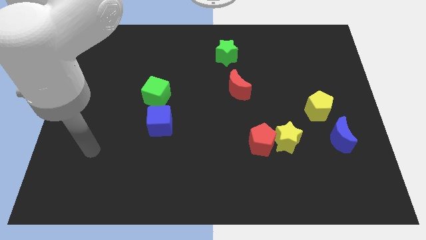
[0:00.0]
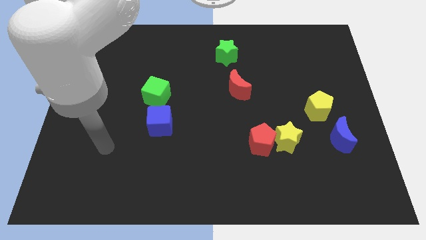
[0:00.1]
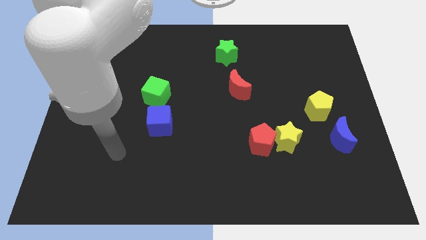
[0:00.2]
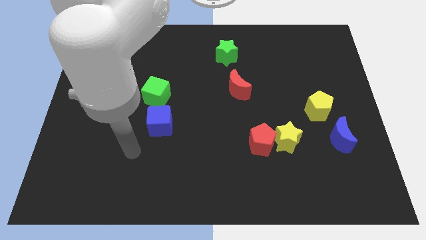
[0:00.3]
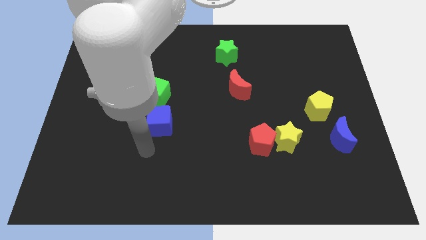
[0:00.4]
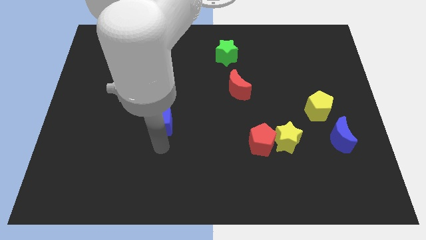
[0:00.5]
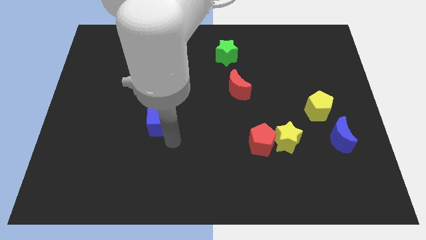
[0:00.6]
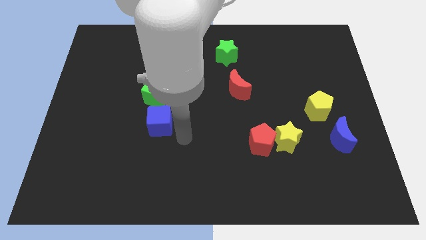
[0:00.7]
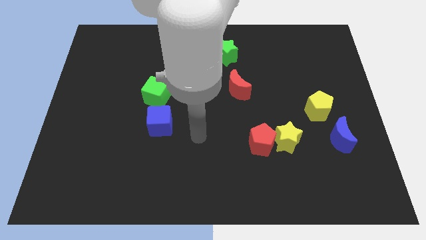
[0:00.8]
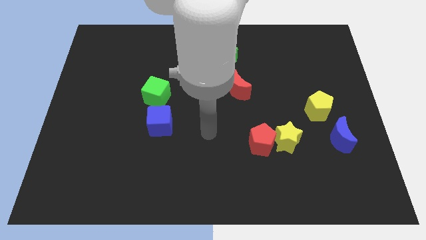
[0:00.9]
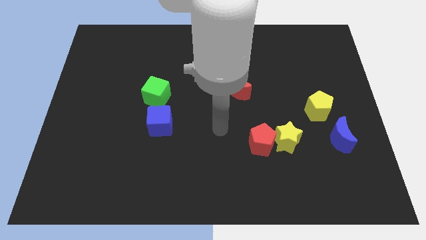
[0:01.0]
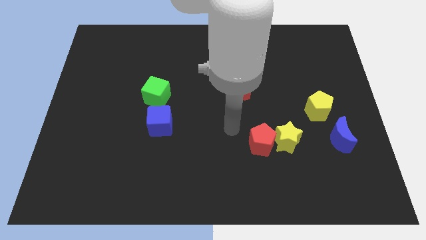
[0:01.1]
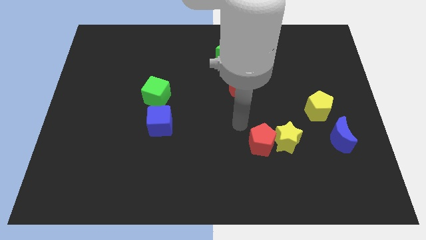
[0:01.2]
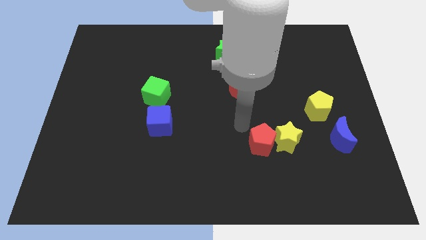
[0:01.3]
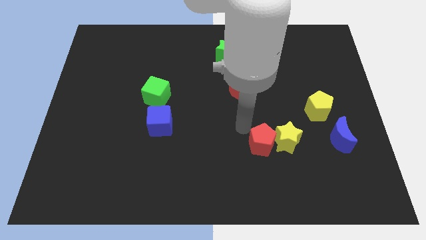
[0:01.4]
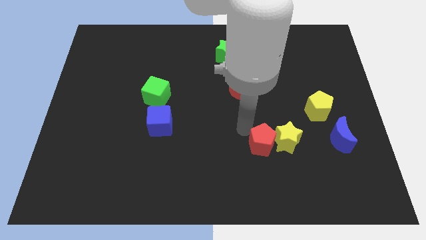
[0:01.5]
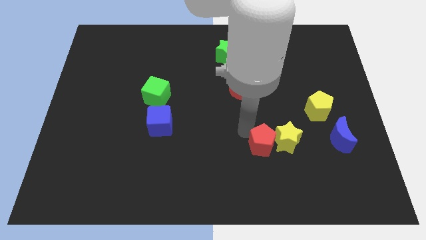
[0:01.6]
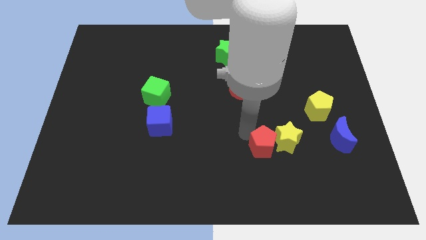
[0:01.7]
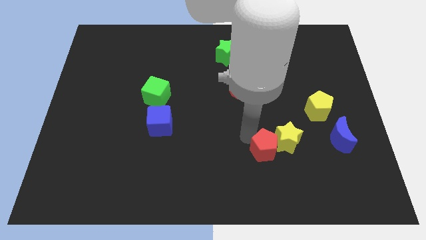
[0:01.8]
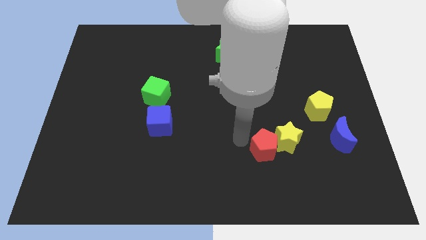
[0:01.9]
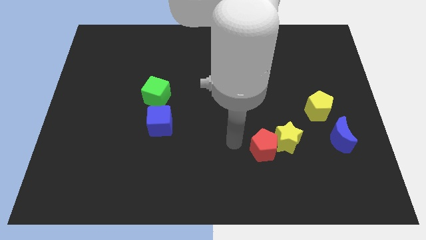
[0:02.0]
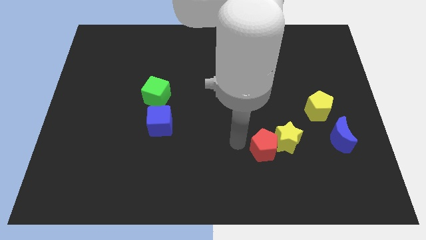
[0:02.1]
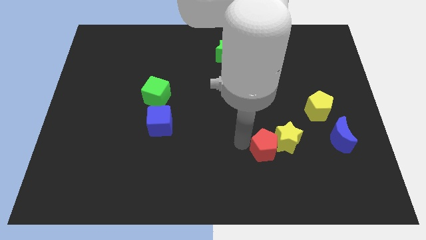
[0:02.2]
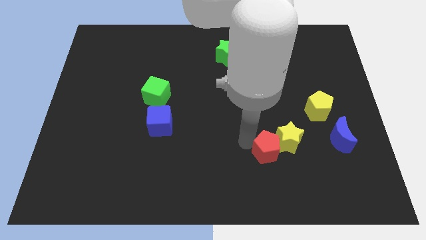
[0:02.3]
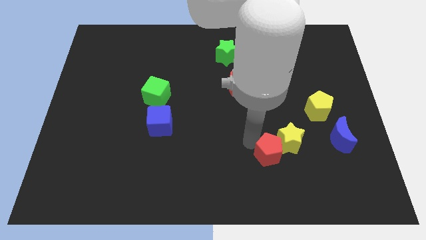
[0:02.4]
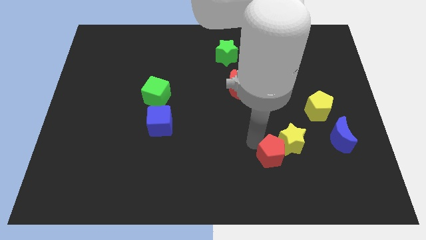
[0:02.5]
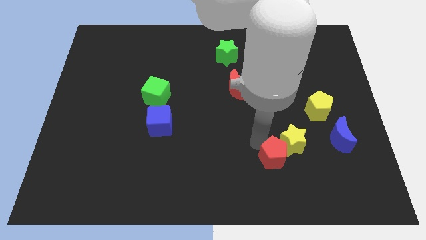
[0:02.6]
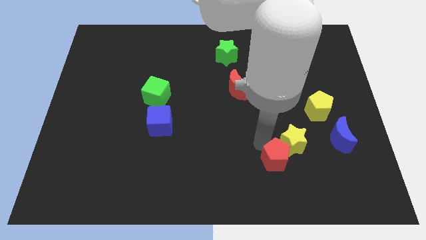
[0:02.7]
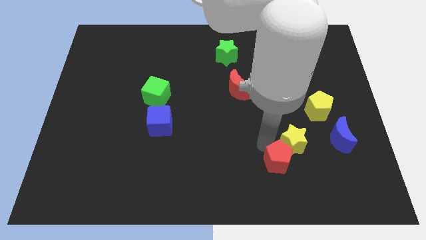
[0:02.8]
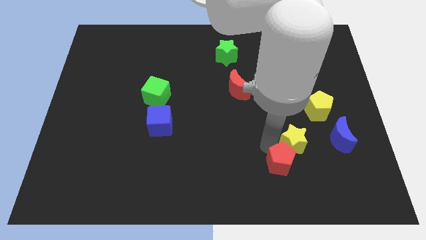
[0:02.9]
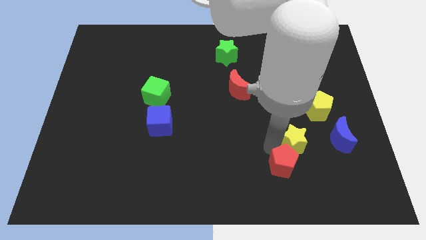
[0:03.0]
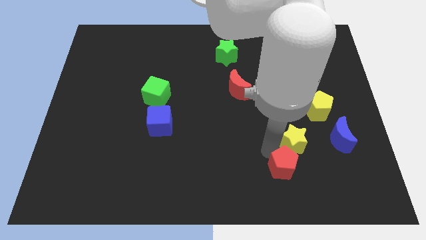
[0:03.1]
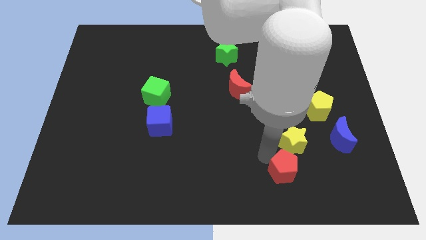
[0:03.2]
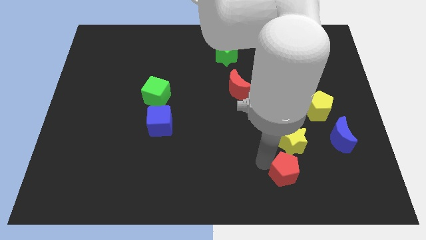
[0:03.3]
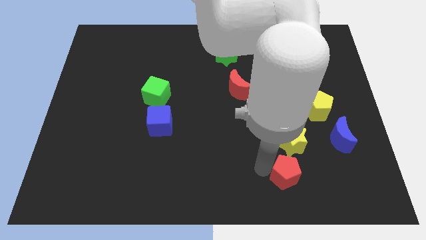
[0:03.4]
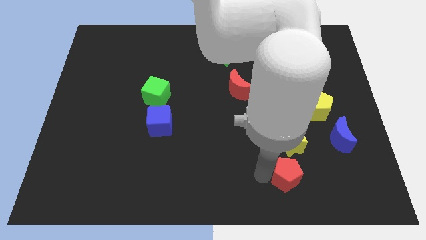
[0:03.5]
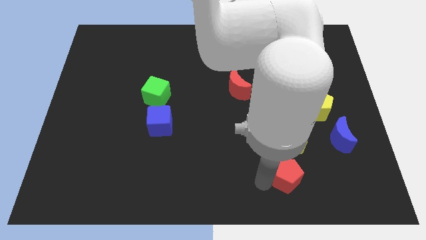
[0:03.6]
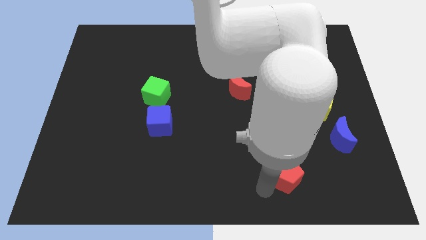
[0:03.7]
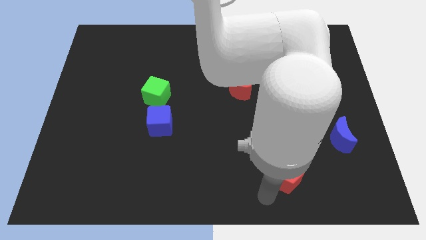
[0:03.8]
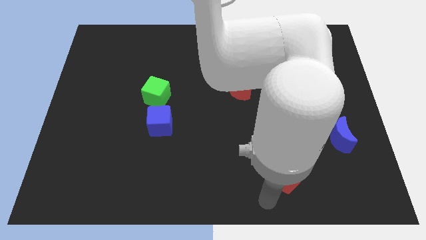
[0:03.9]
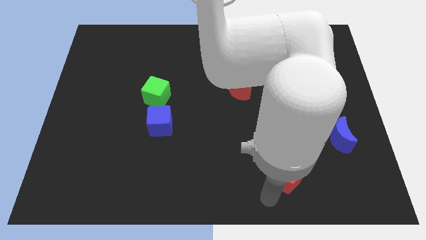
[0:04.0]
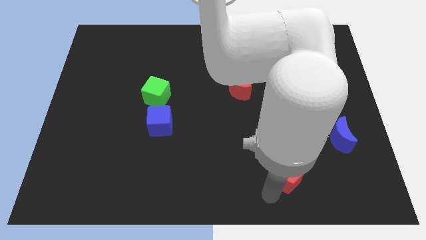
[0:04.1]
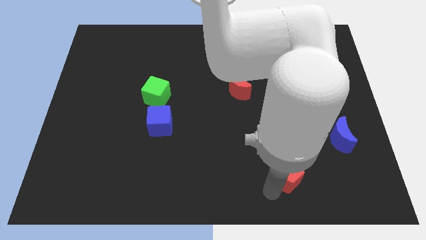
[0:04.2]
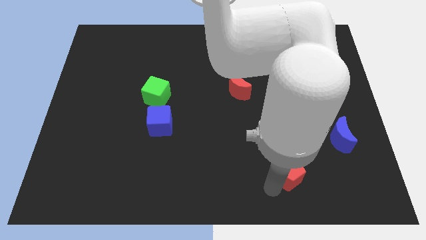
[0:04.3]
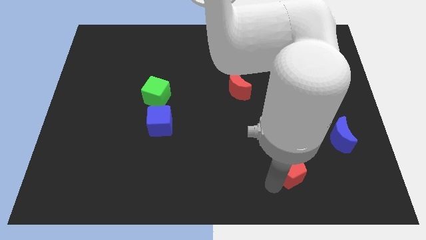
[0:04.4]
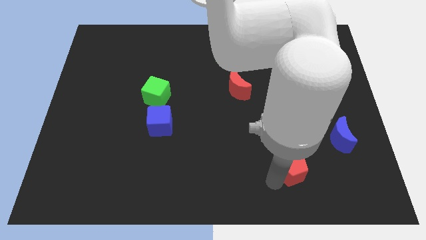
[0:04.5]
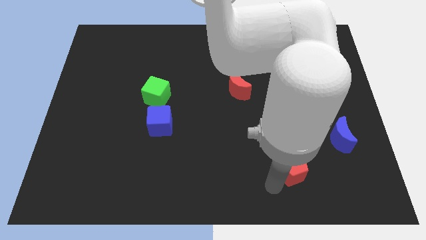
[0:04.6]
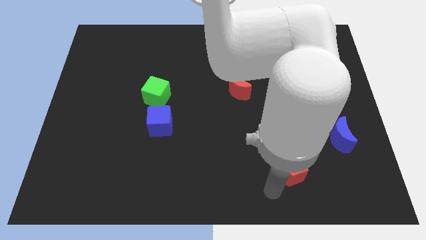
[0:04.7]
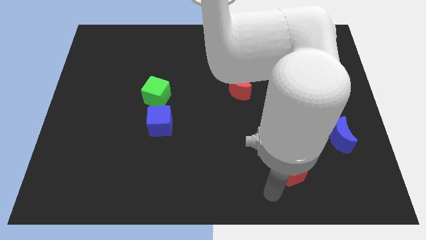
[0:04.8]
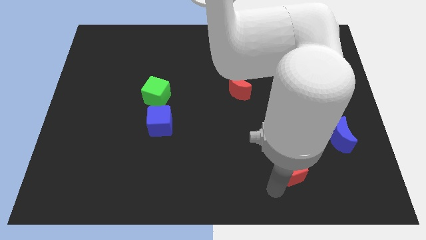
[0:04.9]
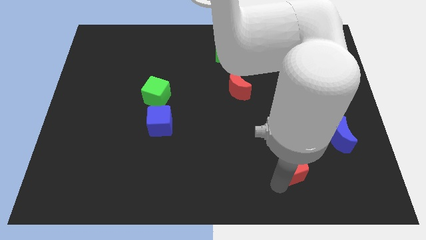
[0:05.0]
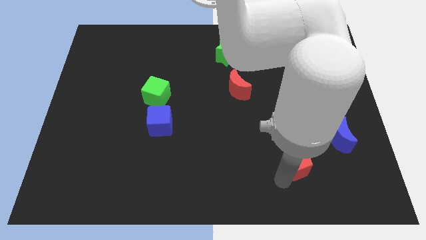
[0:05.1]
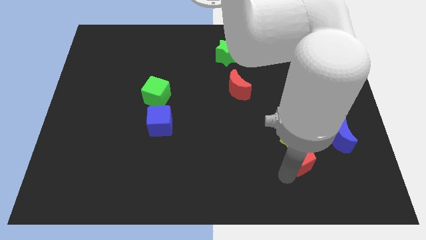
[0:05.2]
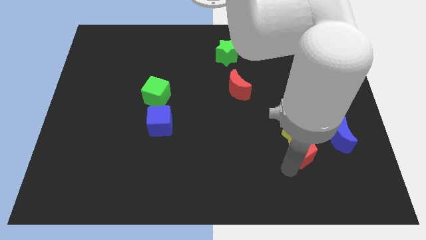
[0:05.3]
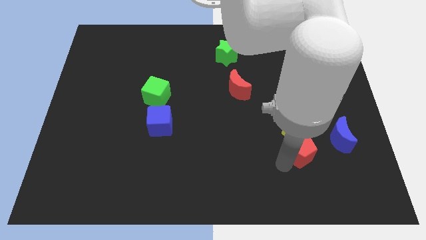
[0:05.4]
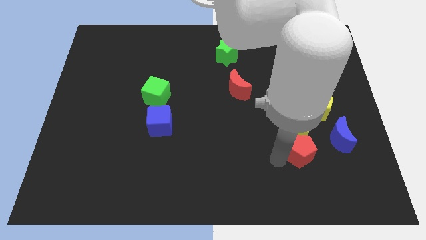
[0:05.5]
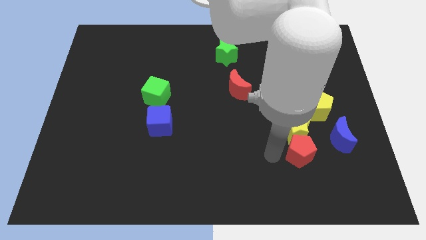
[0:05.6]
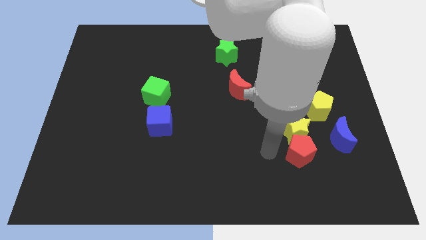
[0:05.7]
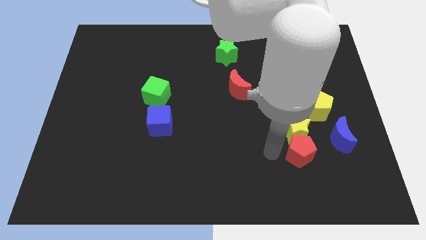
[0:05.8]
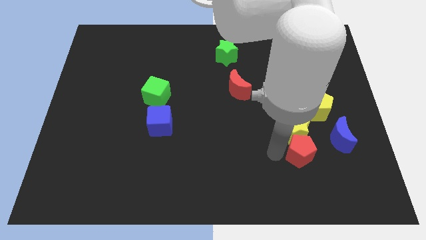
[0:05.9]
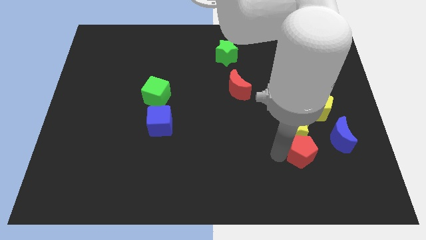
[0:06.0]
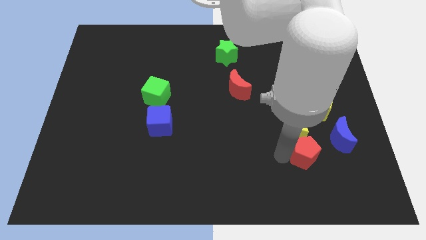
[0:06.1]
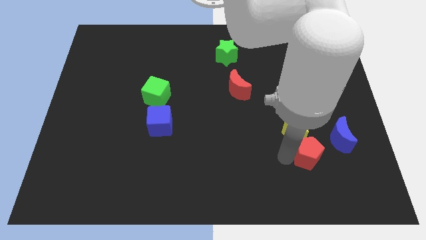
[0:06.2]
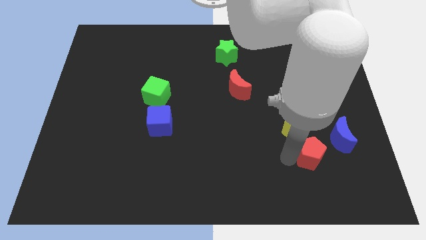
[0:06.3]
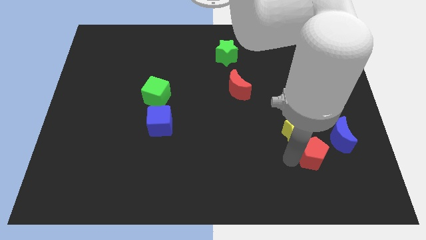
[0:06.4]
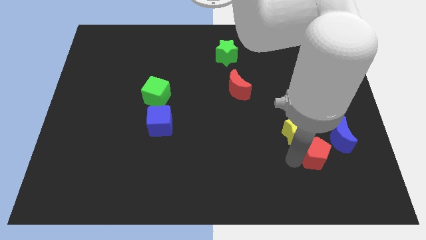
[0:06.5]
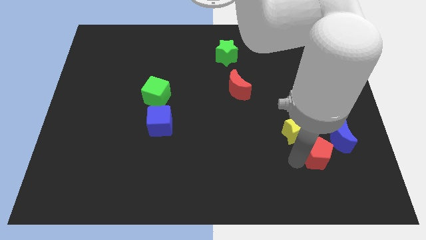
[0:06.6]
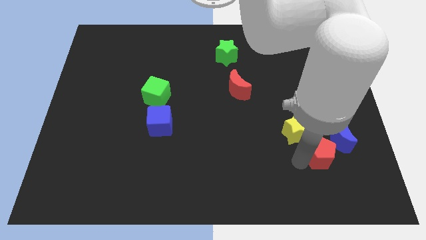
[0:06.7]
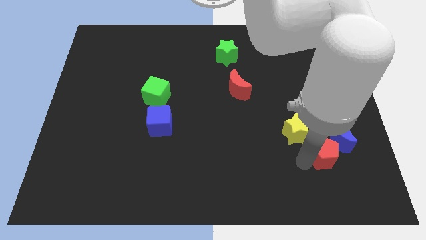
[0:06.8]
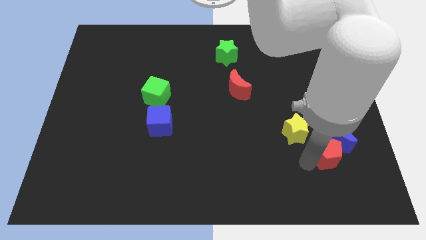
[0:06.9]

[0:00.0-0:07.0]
slide the red pentagon next to the blue moon
